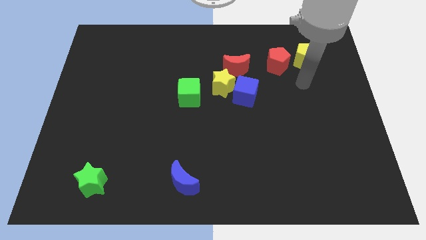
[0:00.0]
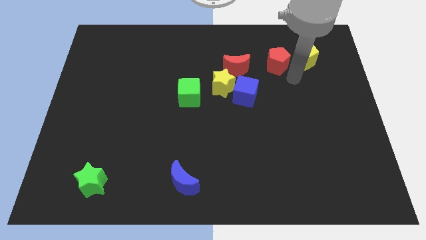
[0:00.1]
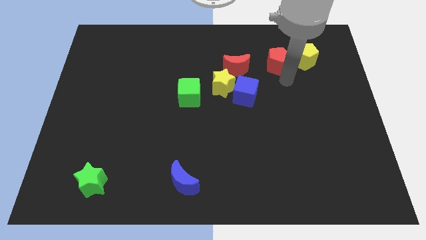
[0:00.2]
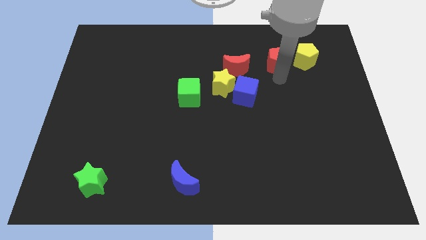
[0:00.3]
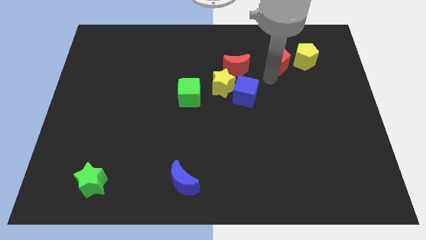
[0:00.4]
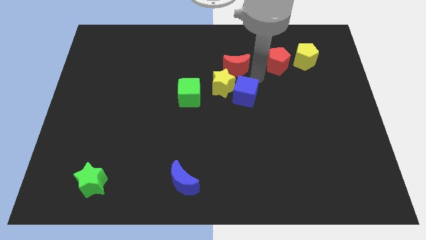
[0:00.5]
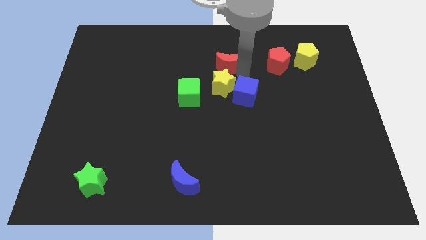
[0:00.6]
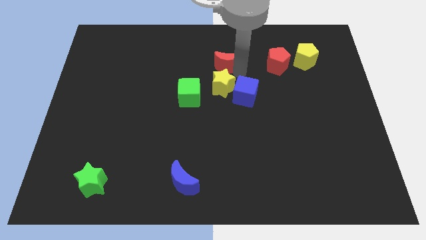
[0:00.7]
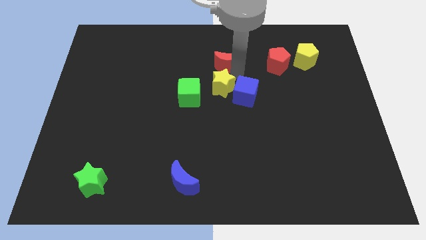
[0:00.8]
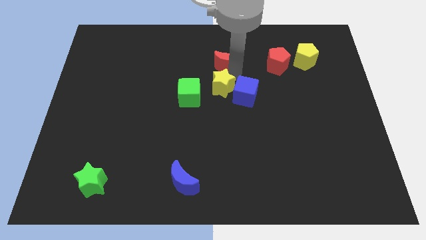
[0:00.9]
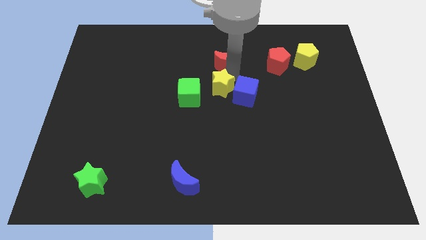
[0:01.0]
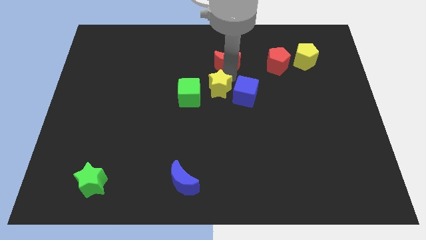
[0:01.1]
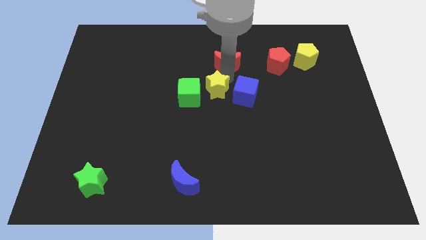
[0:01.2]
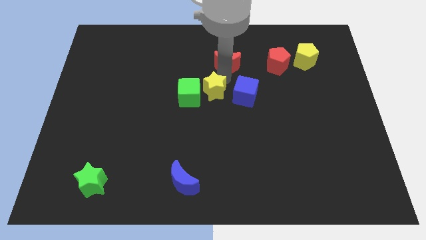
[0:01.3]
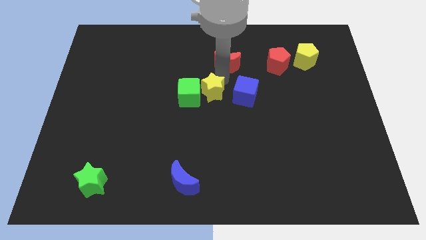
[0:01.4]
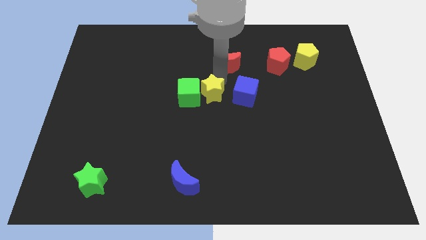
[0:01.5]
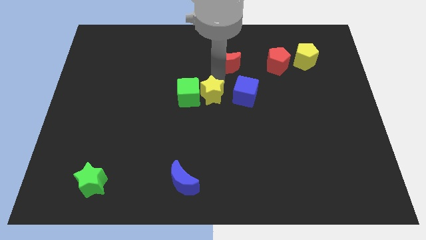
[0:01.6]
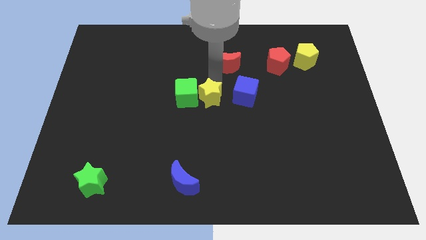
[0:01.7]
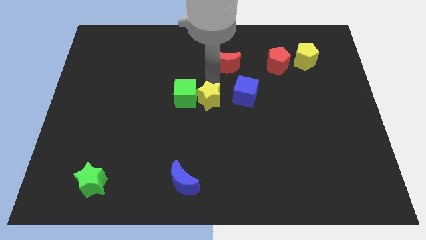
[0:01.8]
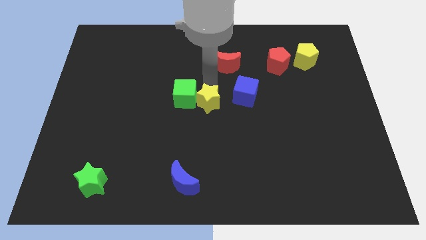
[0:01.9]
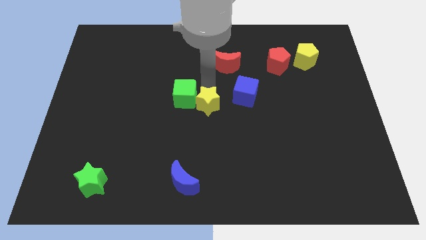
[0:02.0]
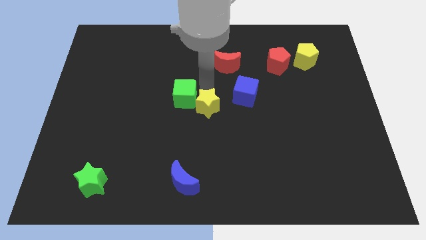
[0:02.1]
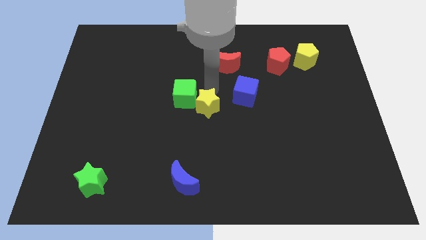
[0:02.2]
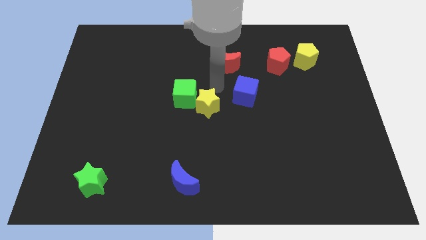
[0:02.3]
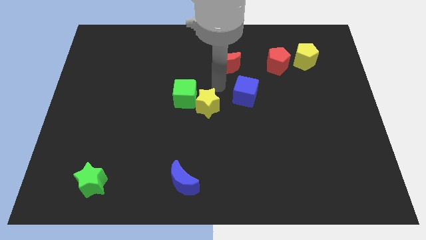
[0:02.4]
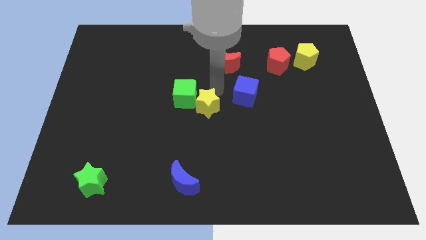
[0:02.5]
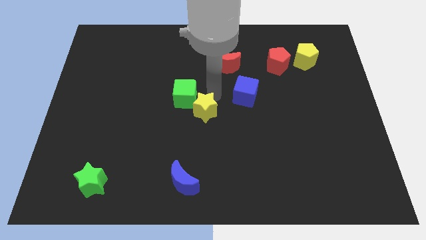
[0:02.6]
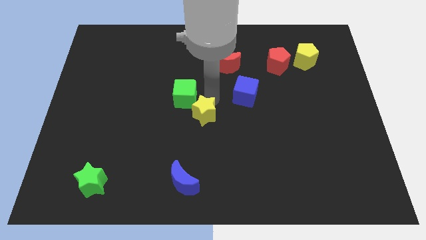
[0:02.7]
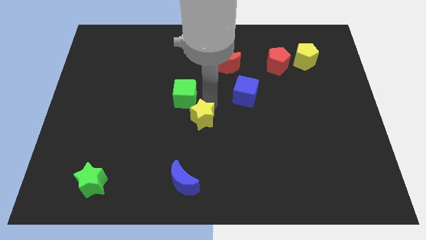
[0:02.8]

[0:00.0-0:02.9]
separate the yellow star from the blue cube, red moon, and green cube

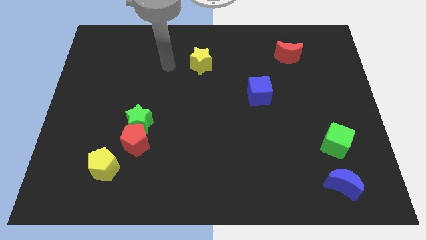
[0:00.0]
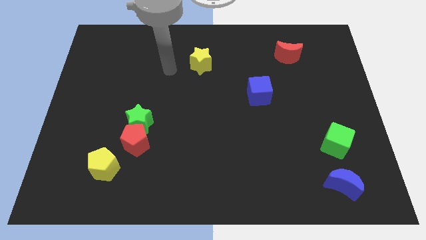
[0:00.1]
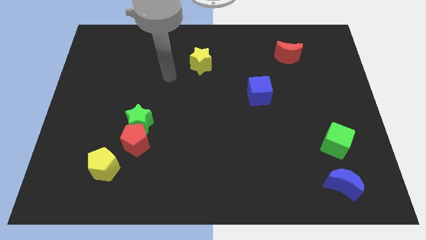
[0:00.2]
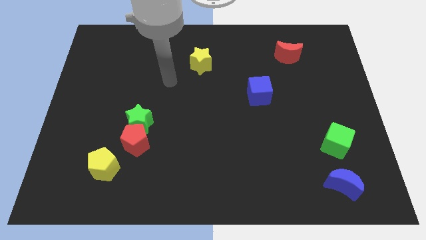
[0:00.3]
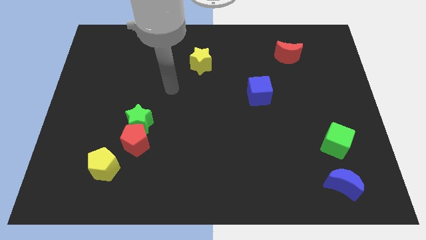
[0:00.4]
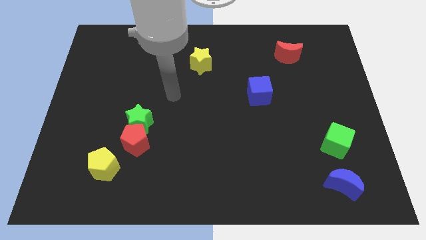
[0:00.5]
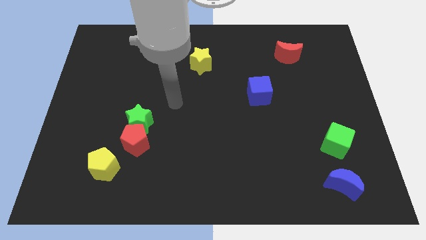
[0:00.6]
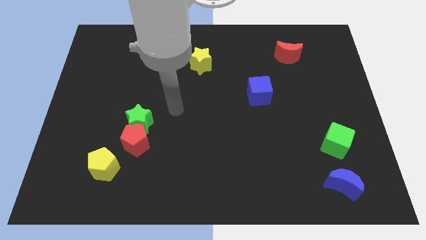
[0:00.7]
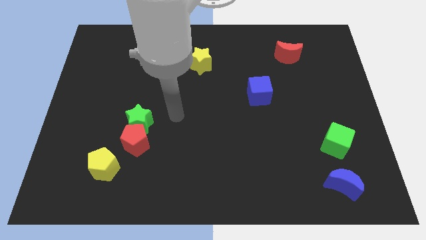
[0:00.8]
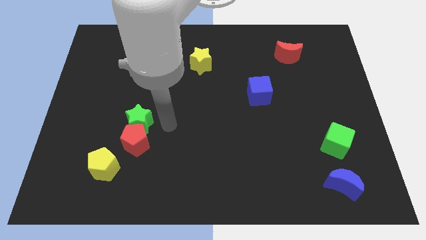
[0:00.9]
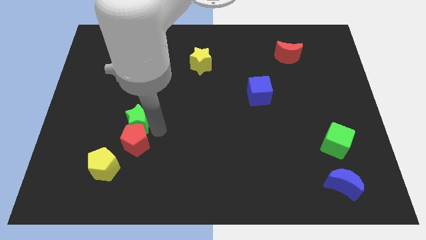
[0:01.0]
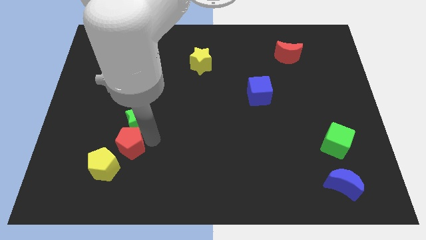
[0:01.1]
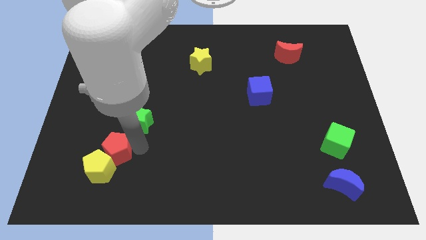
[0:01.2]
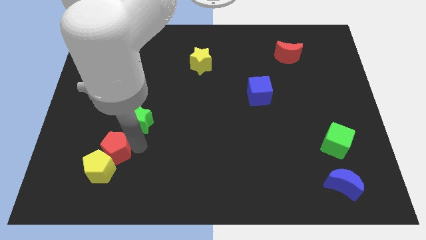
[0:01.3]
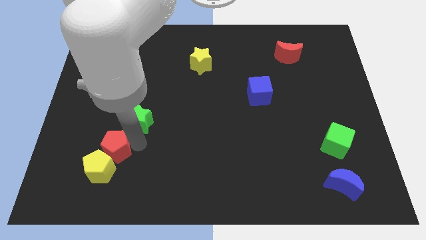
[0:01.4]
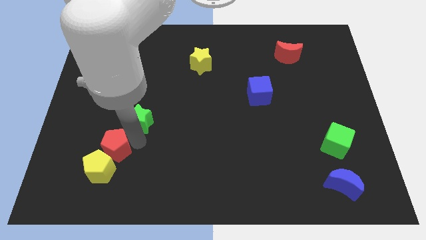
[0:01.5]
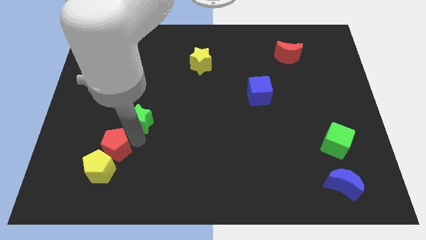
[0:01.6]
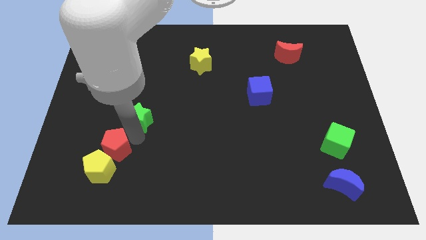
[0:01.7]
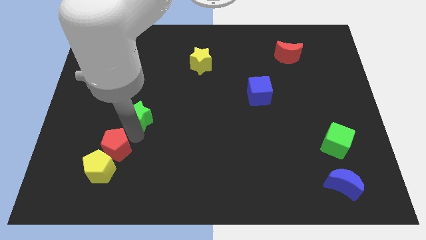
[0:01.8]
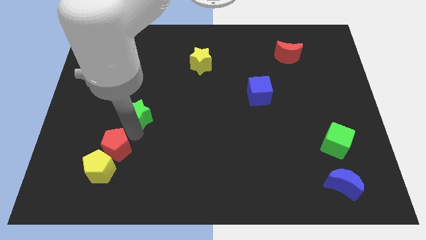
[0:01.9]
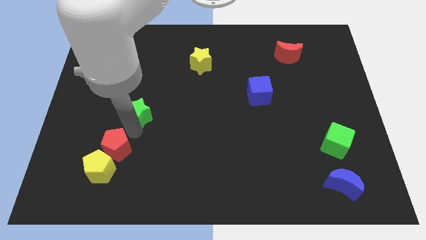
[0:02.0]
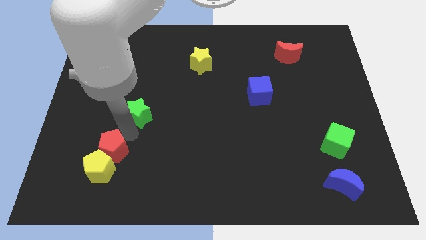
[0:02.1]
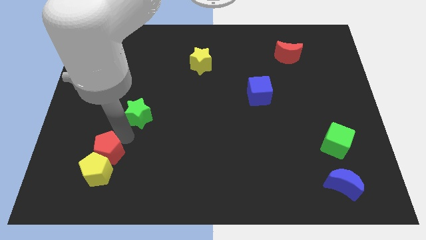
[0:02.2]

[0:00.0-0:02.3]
move the green star away from the red pentagon

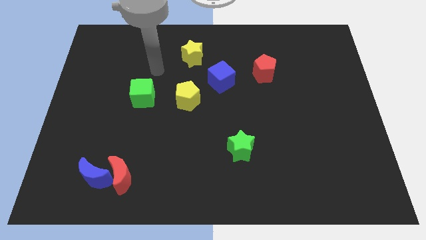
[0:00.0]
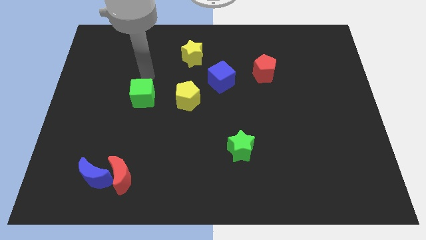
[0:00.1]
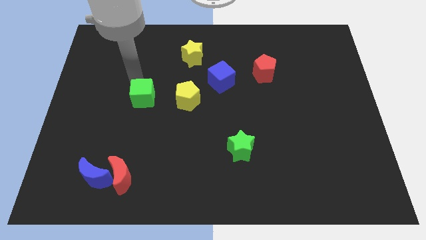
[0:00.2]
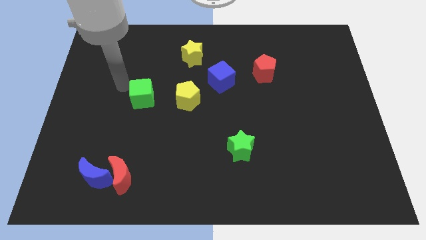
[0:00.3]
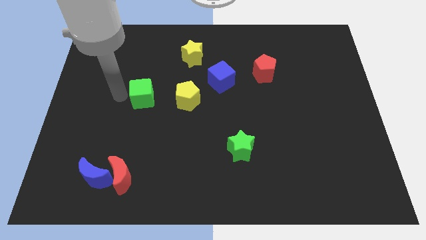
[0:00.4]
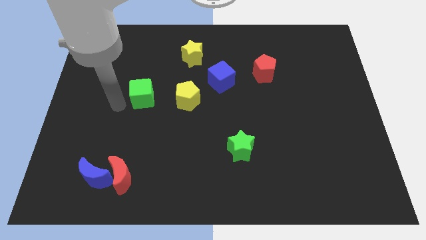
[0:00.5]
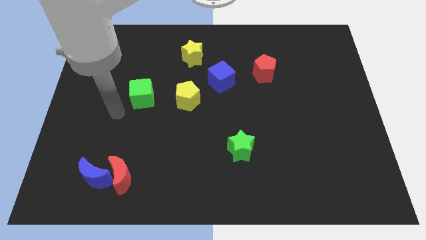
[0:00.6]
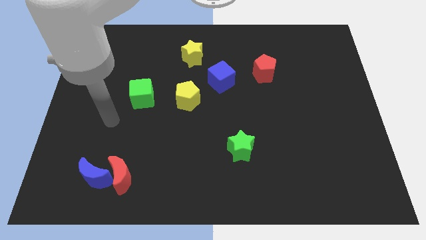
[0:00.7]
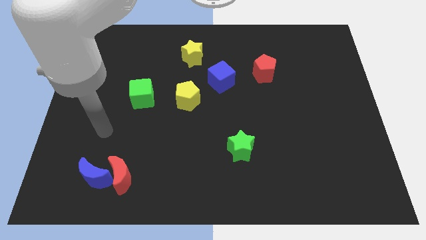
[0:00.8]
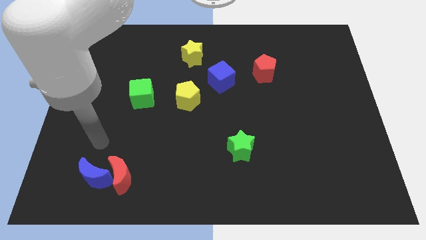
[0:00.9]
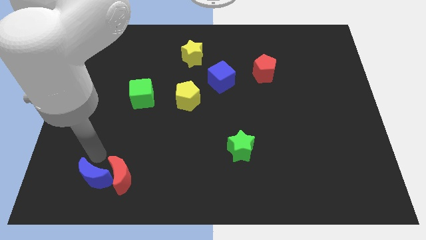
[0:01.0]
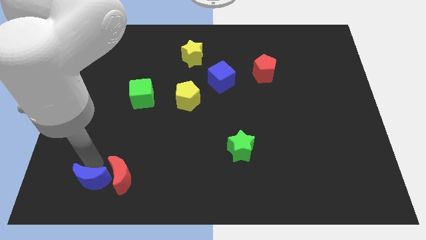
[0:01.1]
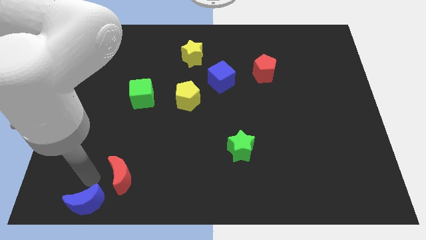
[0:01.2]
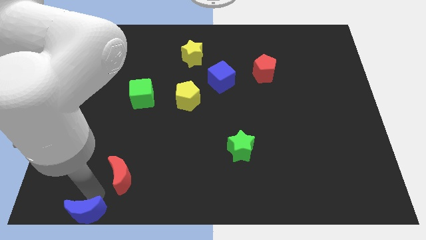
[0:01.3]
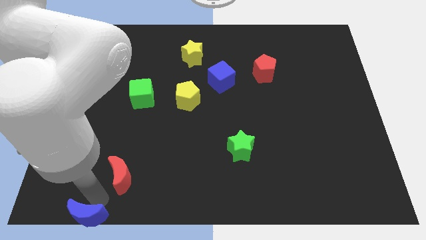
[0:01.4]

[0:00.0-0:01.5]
pull the red moon apart from the blue moon

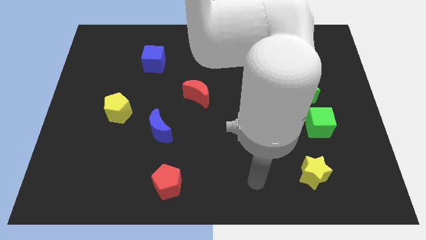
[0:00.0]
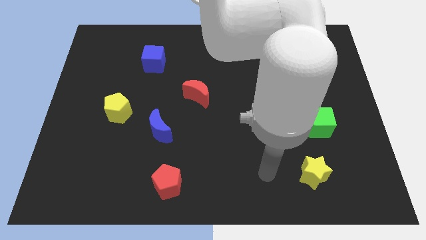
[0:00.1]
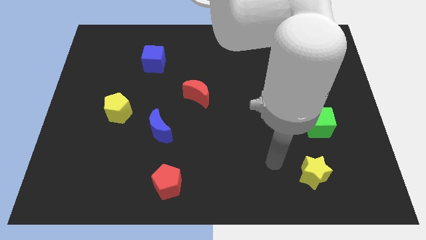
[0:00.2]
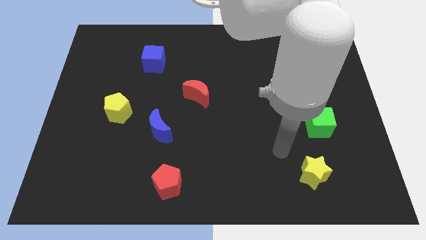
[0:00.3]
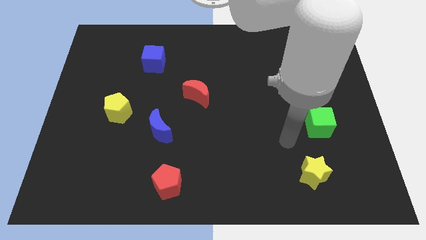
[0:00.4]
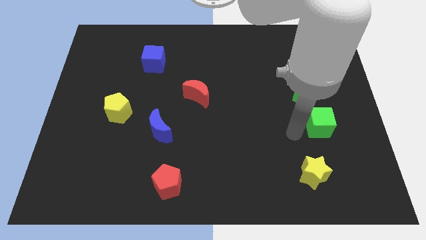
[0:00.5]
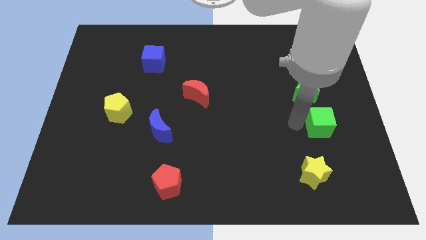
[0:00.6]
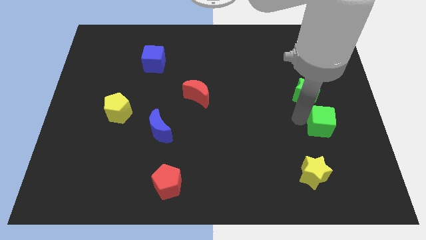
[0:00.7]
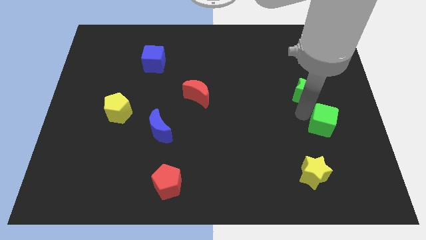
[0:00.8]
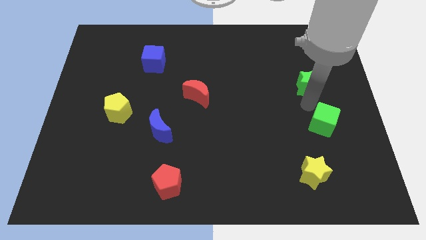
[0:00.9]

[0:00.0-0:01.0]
move the green cube away from the green star

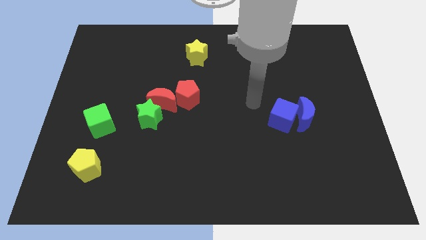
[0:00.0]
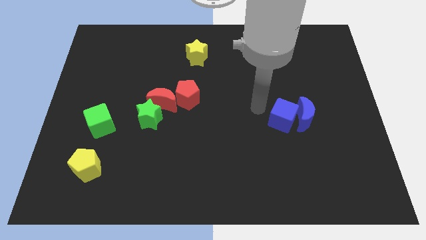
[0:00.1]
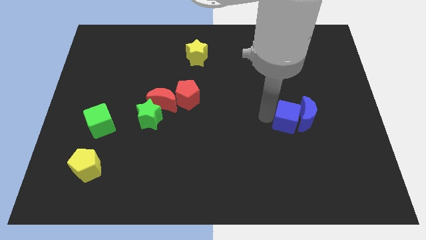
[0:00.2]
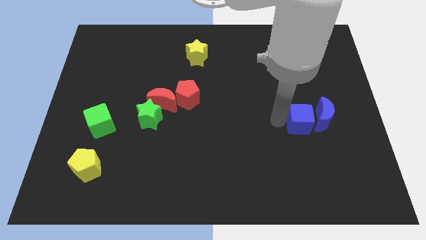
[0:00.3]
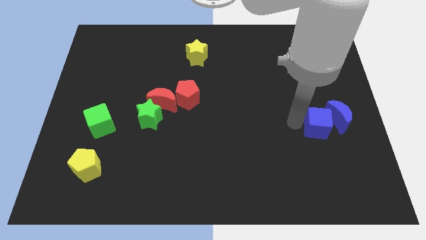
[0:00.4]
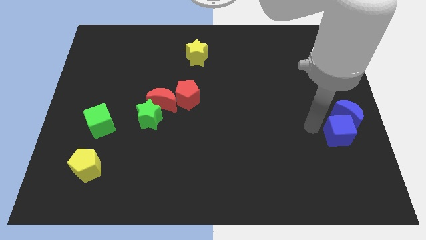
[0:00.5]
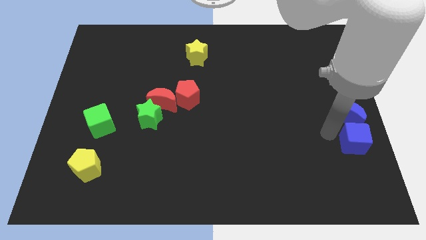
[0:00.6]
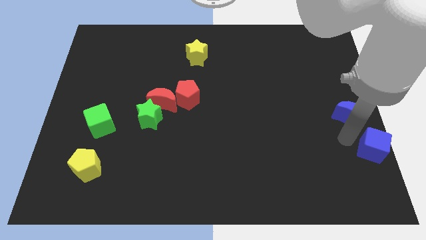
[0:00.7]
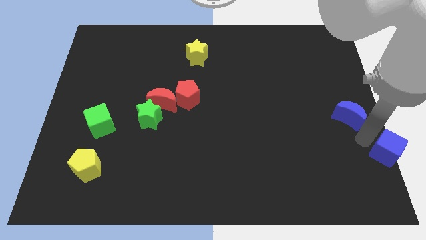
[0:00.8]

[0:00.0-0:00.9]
pull the blue moon apart from the blue cube

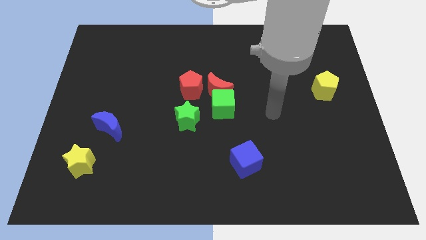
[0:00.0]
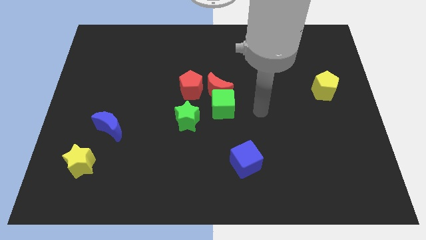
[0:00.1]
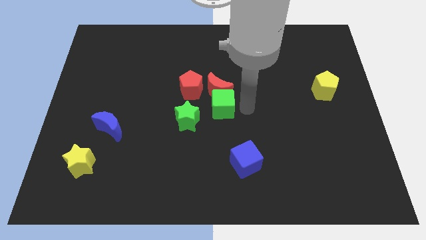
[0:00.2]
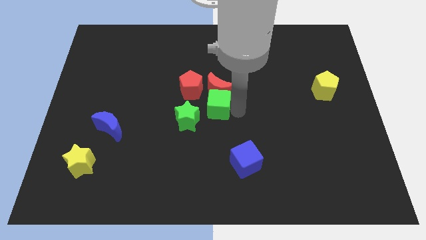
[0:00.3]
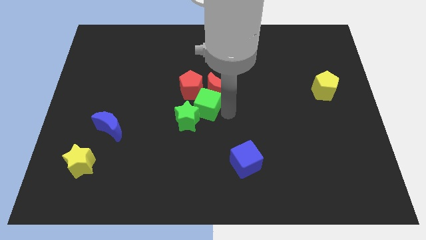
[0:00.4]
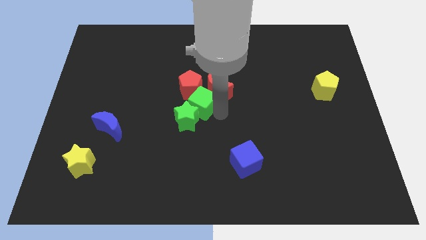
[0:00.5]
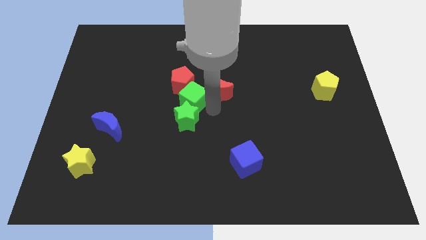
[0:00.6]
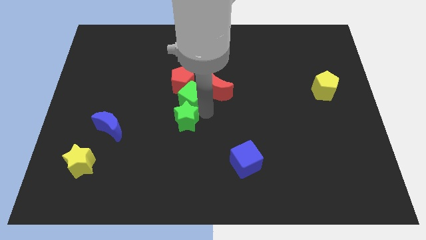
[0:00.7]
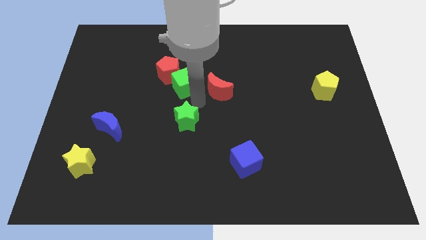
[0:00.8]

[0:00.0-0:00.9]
separate the red moon from the green cube and red pentagon
